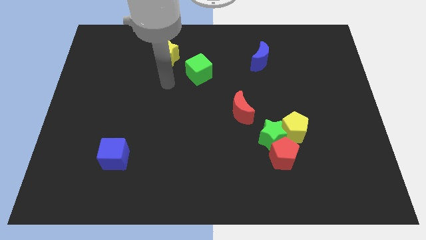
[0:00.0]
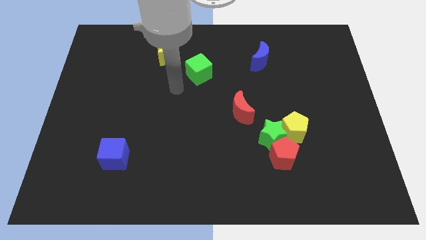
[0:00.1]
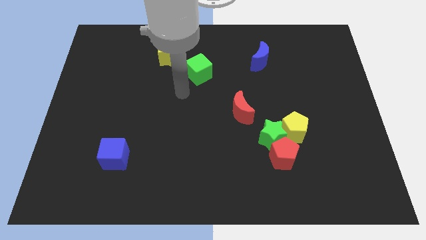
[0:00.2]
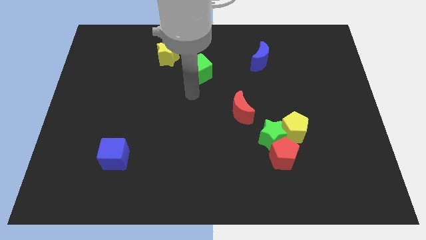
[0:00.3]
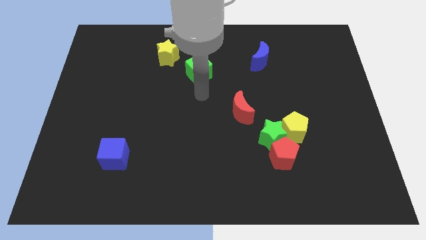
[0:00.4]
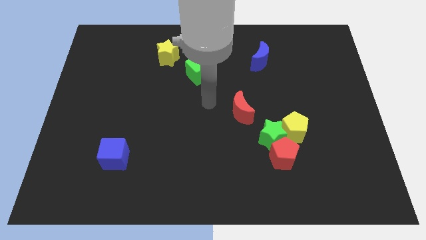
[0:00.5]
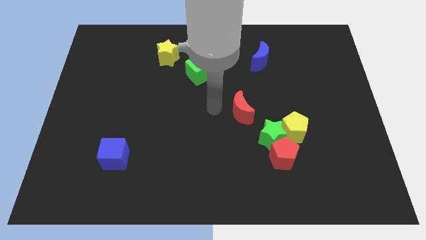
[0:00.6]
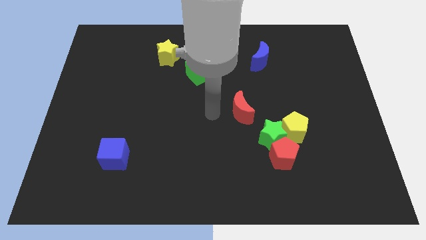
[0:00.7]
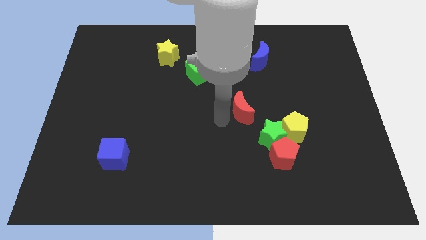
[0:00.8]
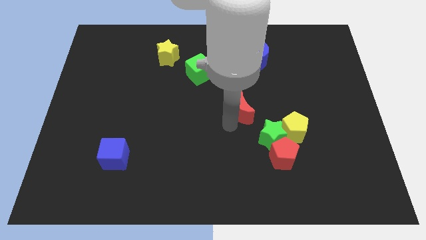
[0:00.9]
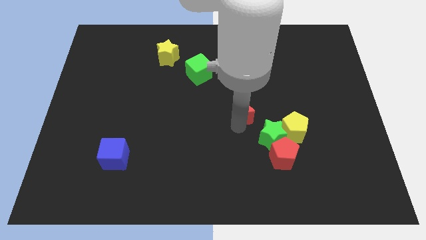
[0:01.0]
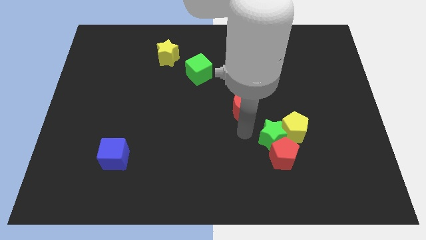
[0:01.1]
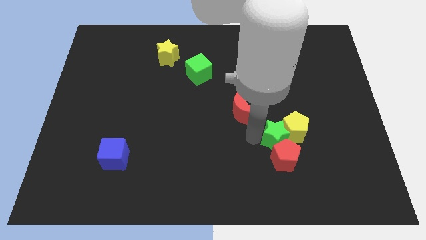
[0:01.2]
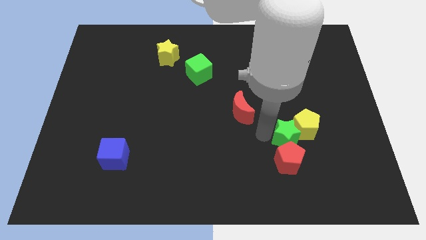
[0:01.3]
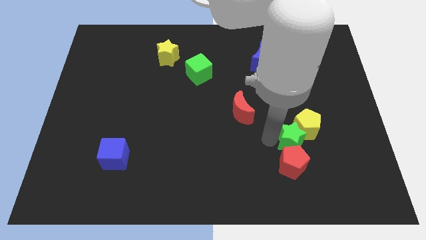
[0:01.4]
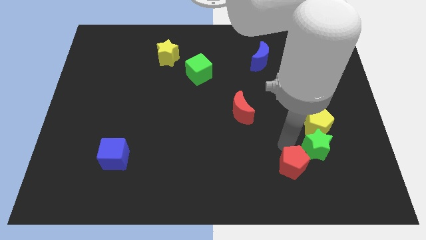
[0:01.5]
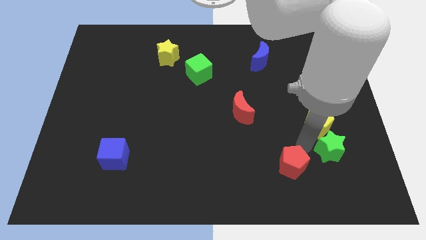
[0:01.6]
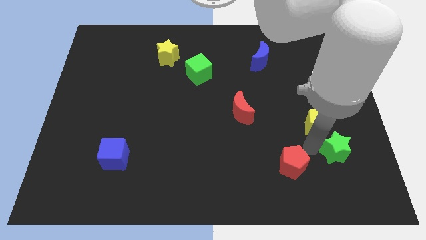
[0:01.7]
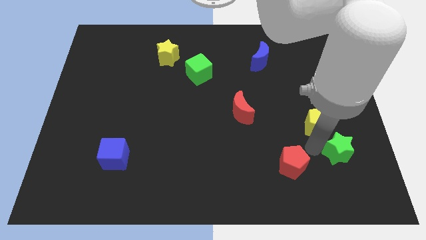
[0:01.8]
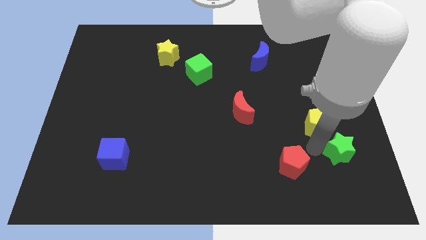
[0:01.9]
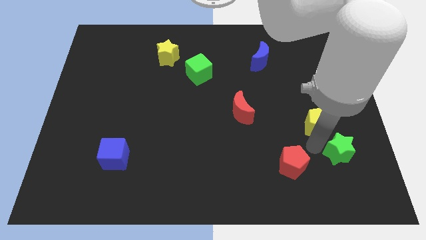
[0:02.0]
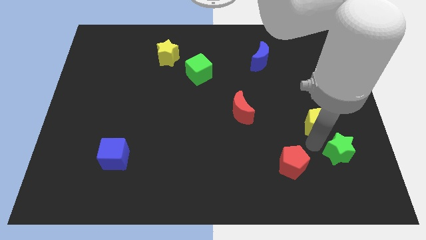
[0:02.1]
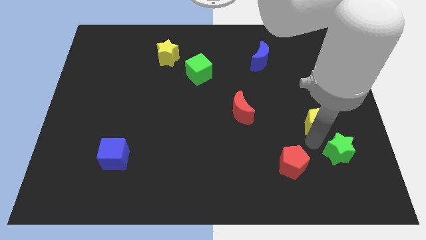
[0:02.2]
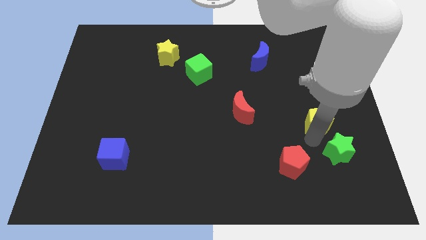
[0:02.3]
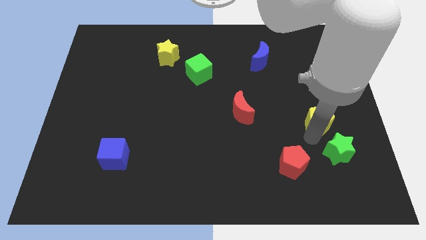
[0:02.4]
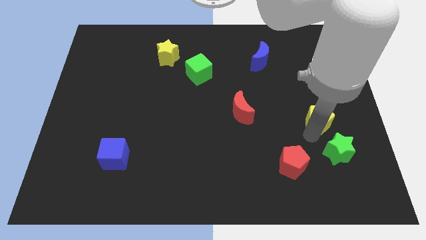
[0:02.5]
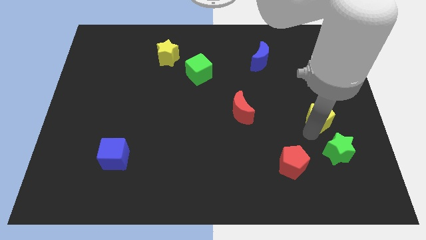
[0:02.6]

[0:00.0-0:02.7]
separate the yellow pentagon from the green star and red pentagon

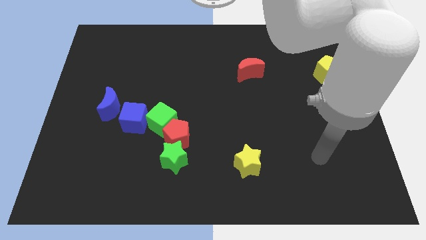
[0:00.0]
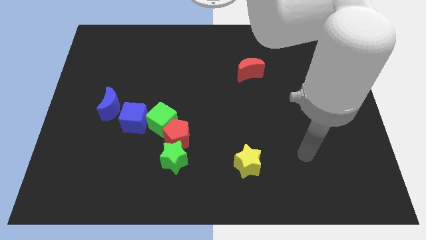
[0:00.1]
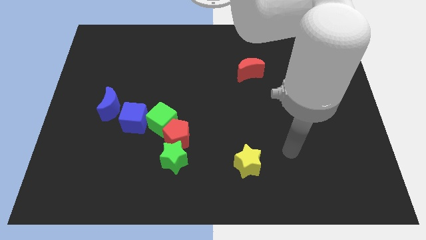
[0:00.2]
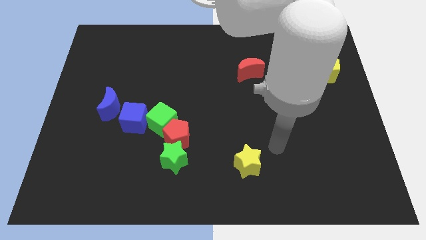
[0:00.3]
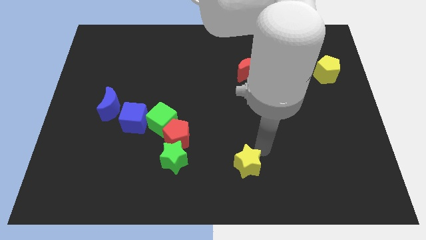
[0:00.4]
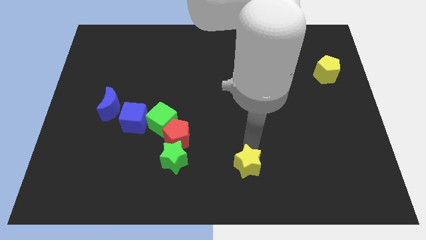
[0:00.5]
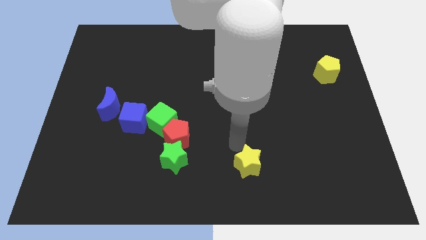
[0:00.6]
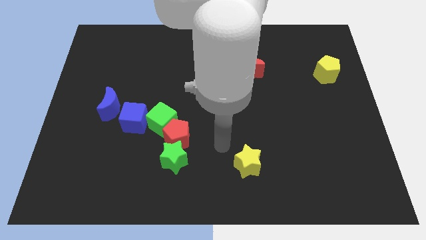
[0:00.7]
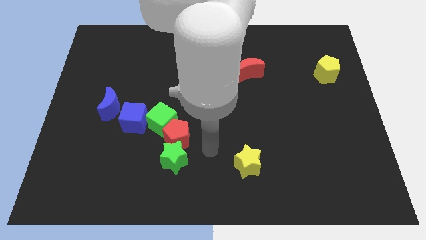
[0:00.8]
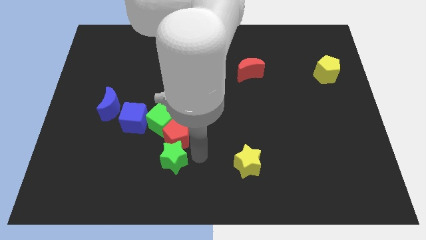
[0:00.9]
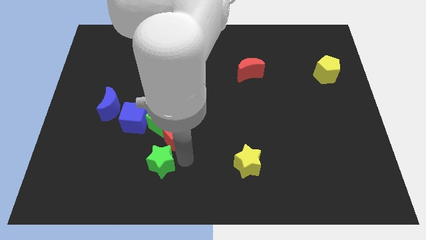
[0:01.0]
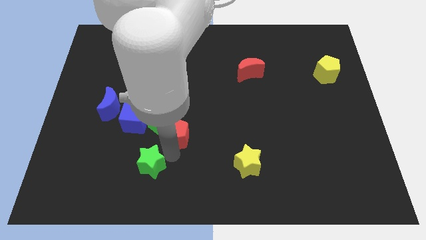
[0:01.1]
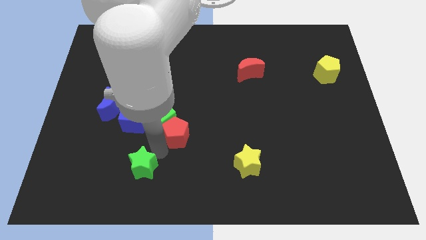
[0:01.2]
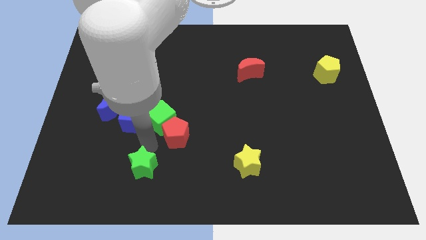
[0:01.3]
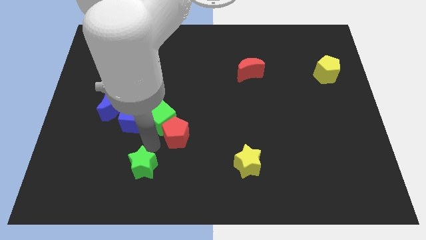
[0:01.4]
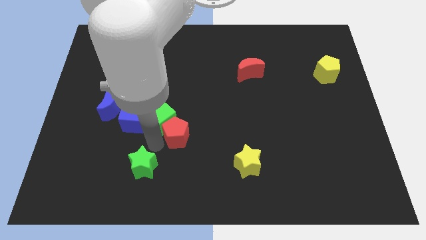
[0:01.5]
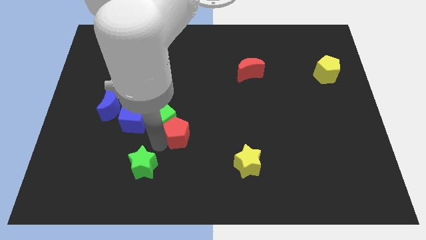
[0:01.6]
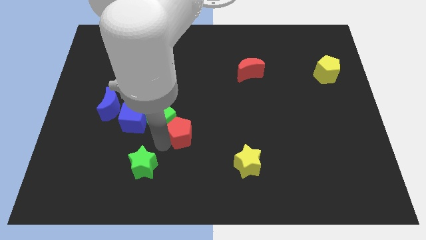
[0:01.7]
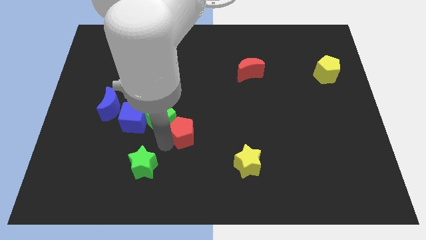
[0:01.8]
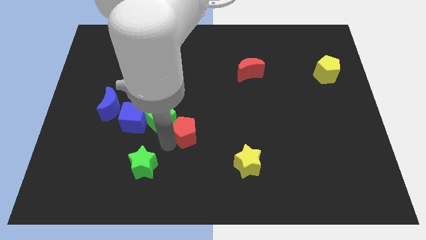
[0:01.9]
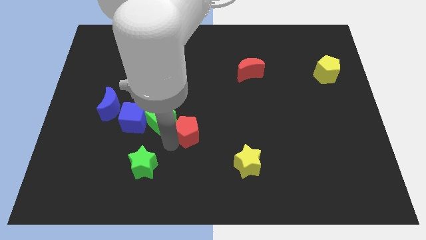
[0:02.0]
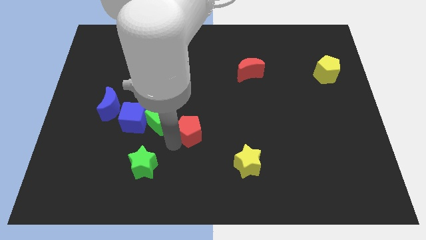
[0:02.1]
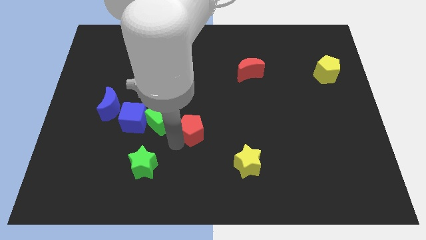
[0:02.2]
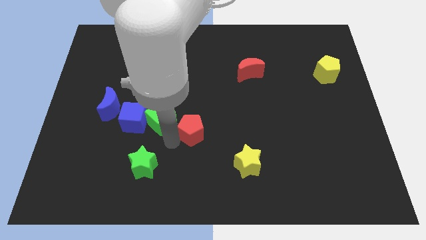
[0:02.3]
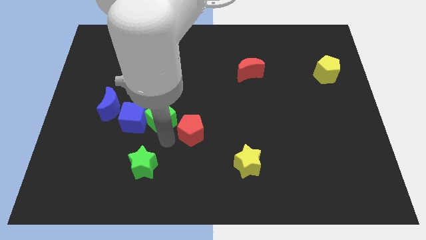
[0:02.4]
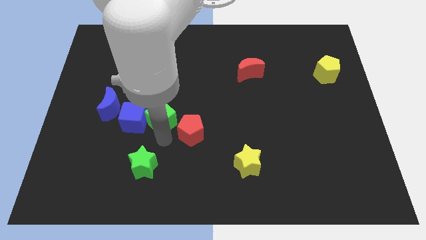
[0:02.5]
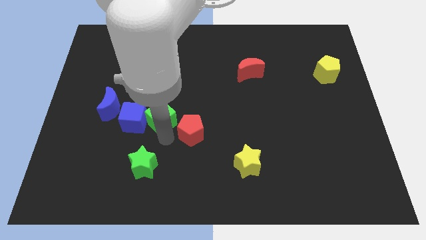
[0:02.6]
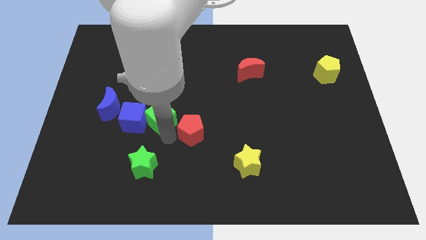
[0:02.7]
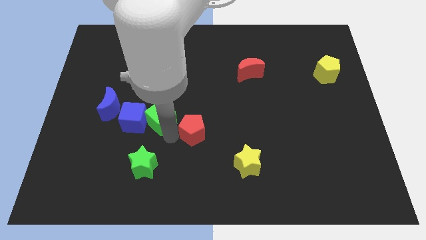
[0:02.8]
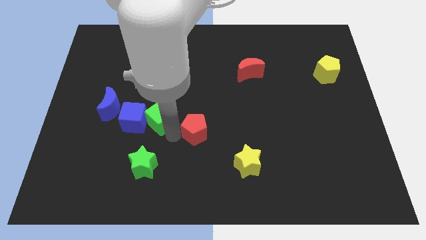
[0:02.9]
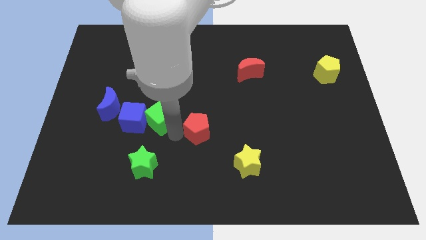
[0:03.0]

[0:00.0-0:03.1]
pull the red pentagon apart from the green star and green cube

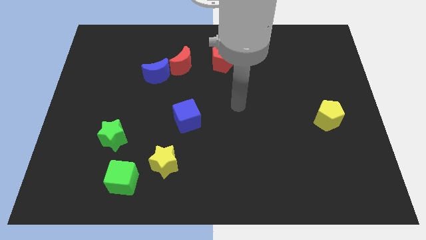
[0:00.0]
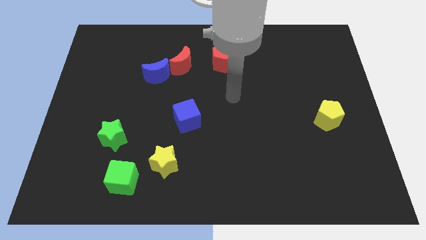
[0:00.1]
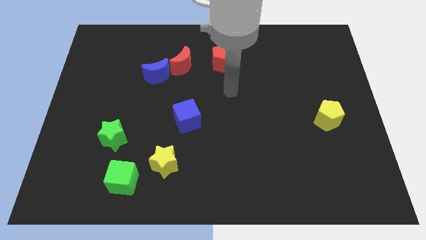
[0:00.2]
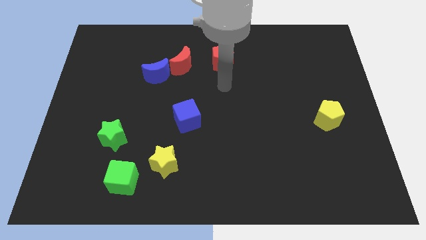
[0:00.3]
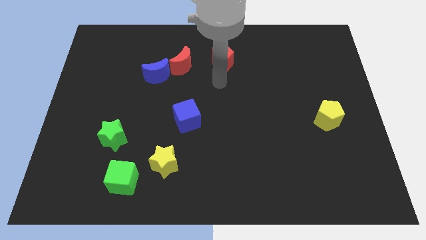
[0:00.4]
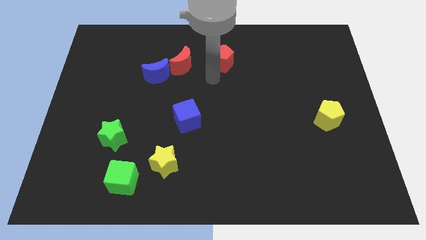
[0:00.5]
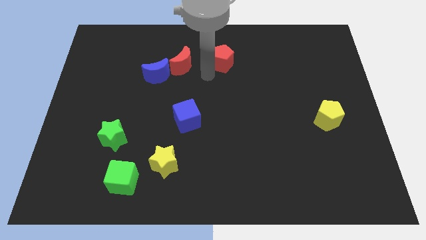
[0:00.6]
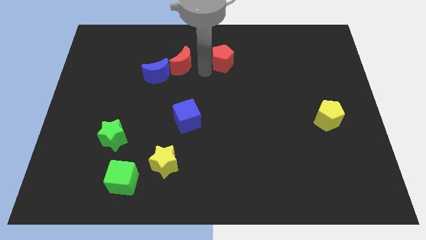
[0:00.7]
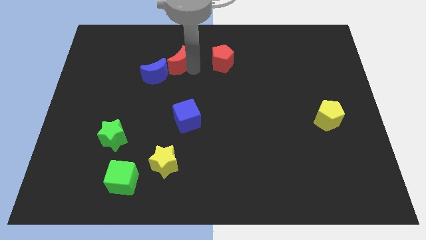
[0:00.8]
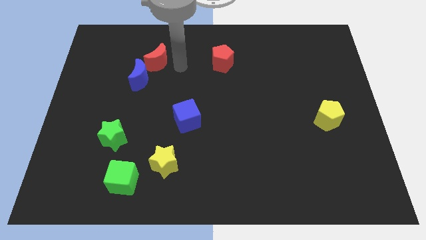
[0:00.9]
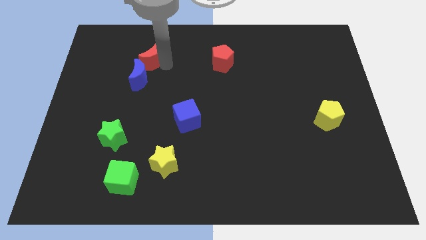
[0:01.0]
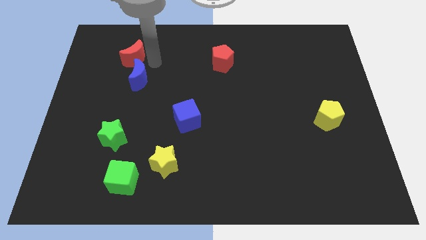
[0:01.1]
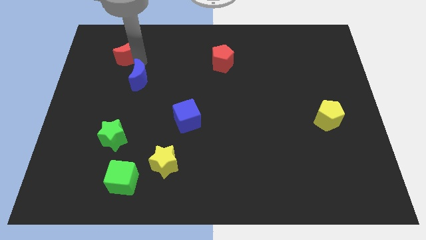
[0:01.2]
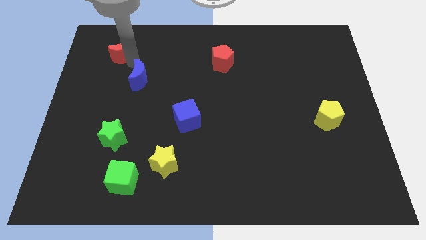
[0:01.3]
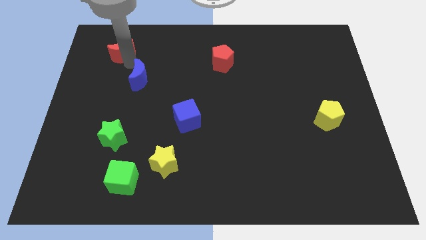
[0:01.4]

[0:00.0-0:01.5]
move the blue moon away from the red moon

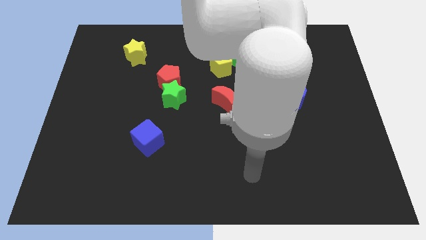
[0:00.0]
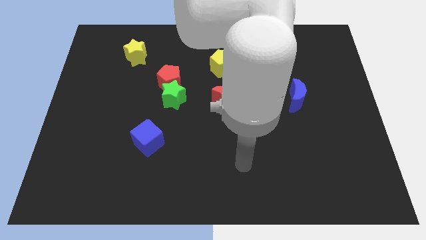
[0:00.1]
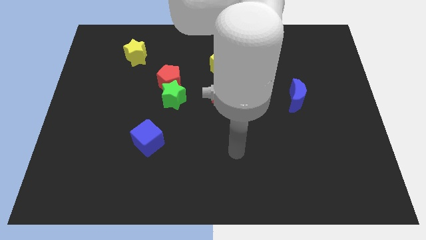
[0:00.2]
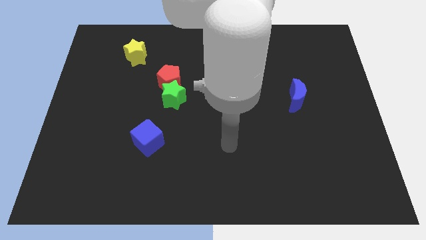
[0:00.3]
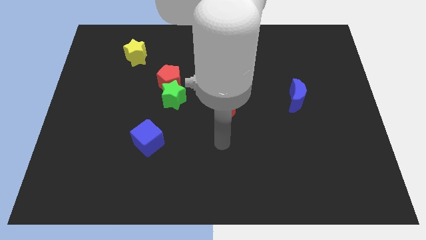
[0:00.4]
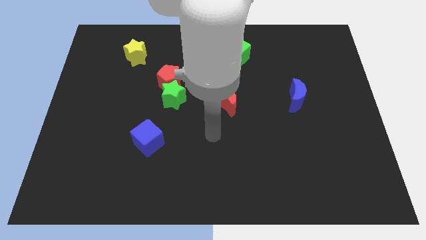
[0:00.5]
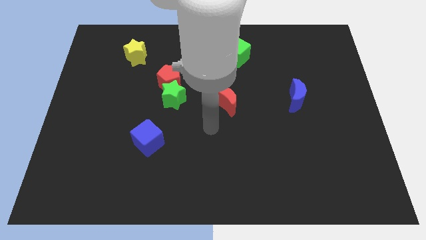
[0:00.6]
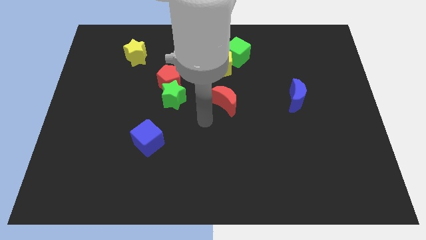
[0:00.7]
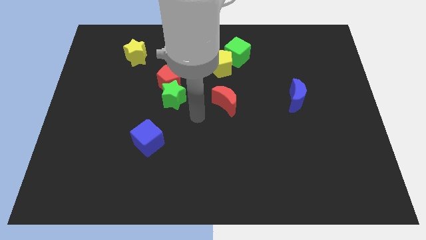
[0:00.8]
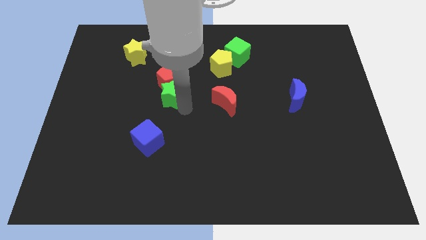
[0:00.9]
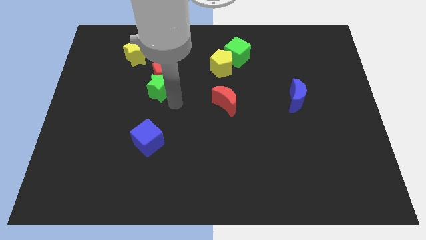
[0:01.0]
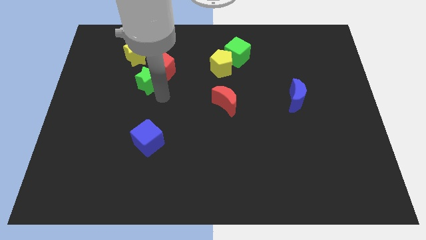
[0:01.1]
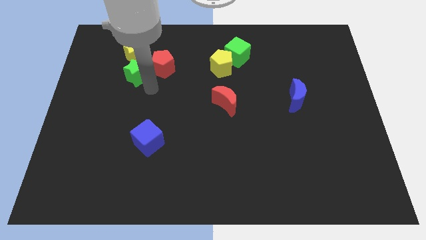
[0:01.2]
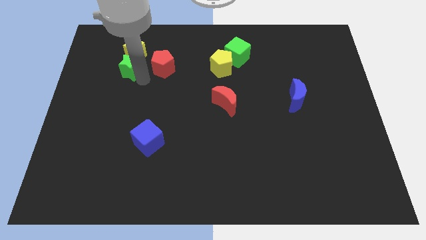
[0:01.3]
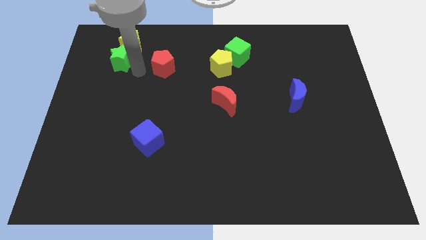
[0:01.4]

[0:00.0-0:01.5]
move the red pentagon away from the green star

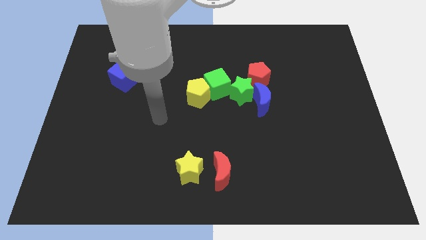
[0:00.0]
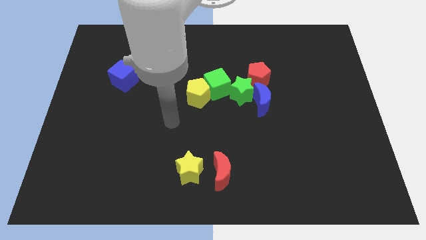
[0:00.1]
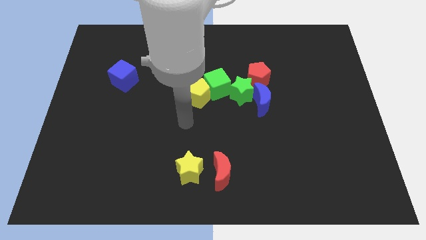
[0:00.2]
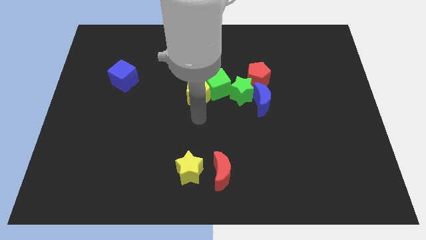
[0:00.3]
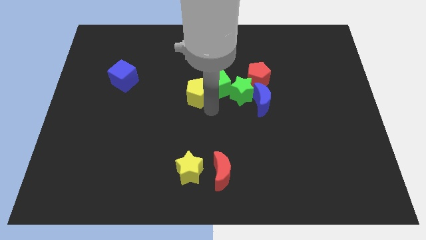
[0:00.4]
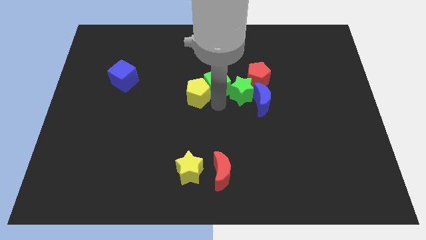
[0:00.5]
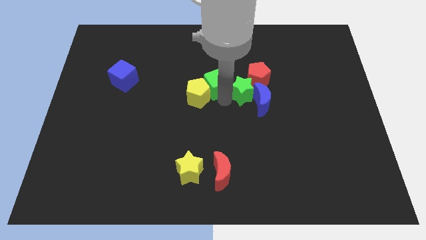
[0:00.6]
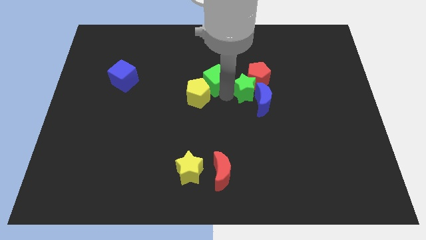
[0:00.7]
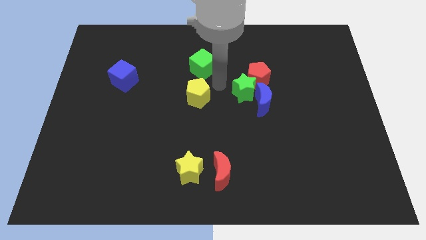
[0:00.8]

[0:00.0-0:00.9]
pull the yellow pentagon apart from the green cube
